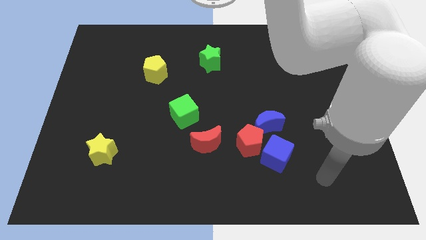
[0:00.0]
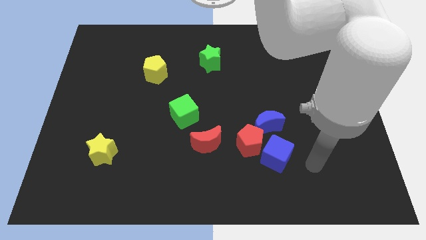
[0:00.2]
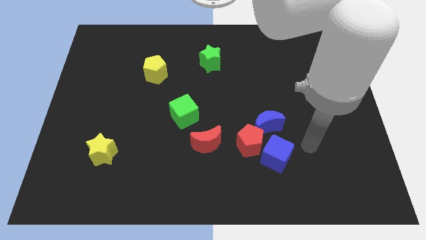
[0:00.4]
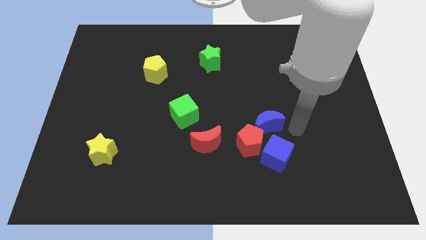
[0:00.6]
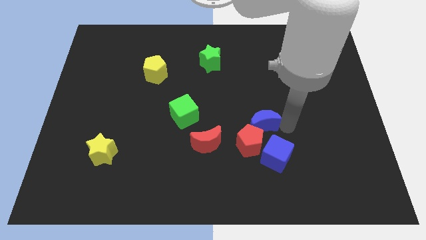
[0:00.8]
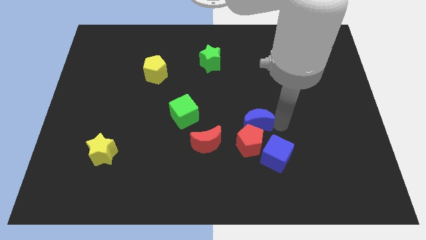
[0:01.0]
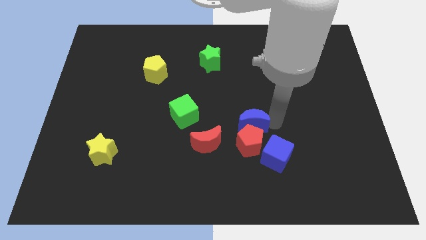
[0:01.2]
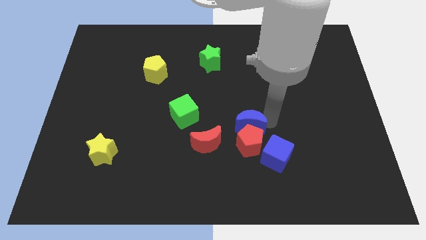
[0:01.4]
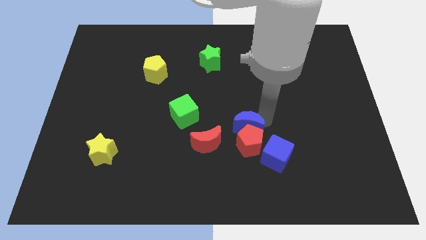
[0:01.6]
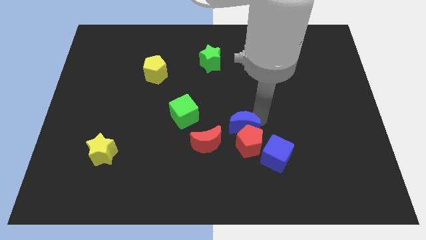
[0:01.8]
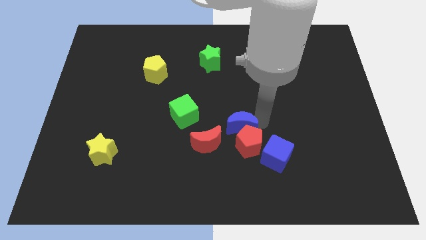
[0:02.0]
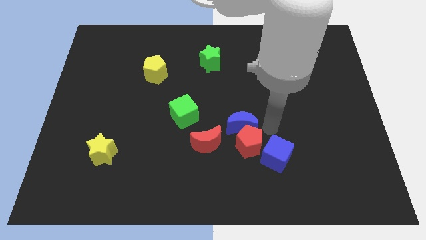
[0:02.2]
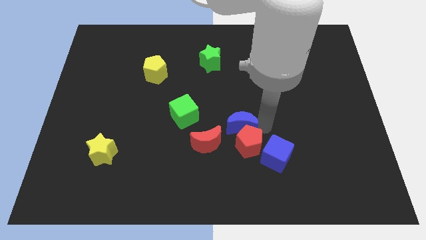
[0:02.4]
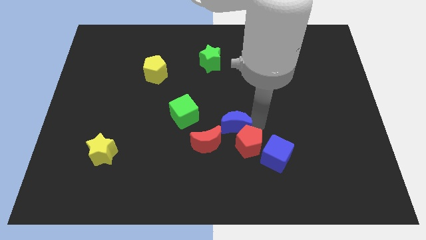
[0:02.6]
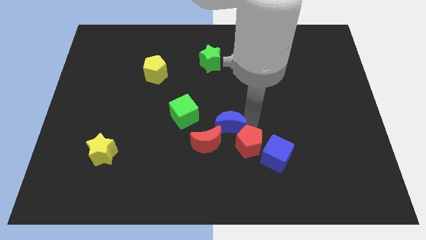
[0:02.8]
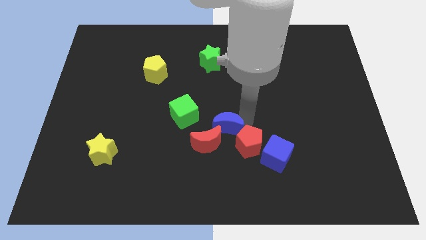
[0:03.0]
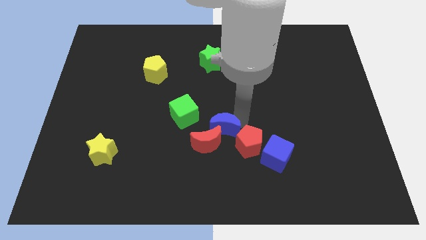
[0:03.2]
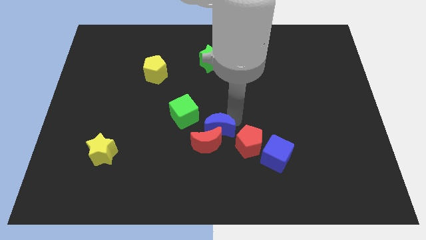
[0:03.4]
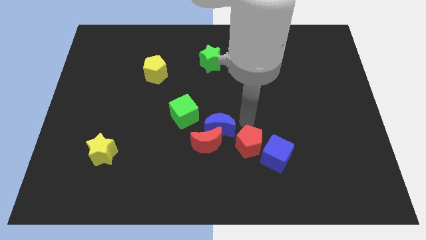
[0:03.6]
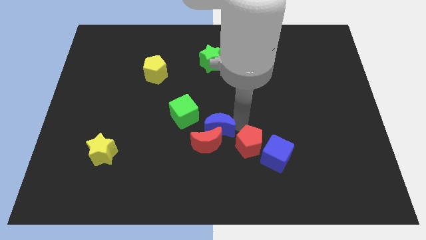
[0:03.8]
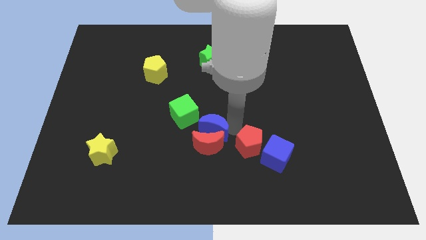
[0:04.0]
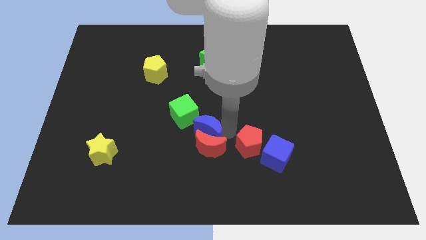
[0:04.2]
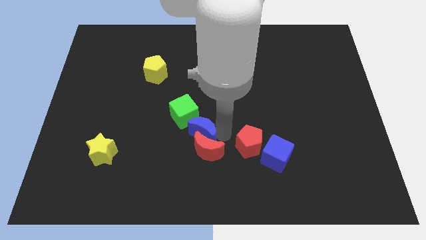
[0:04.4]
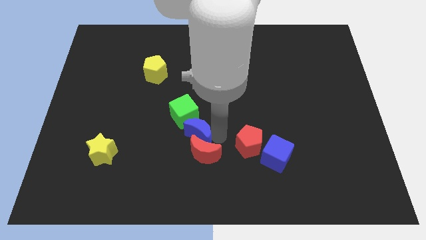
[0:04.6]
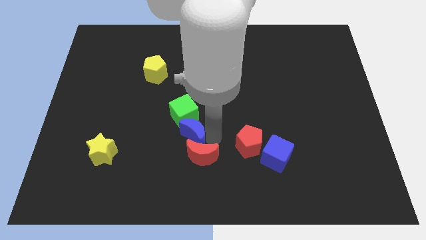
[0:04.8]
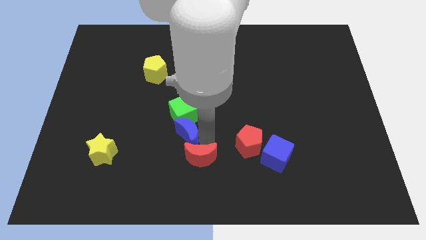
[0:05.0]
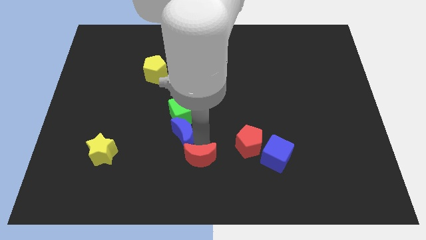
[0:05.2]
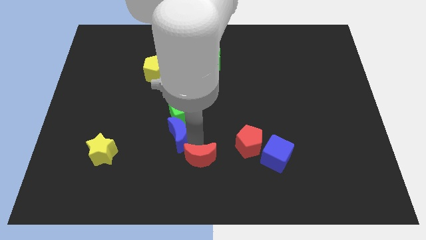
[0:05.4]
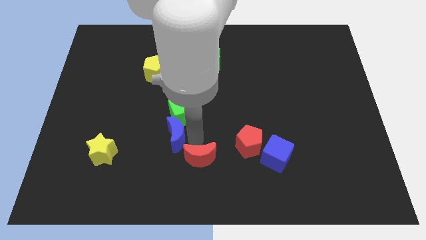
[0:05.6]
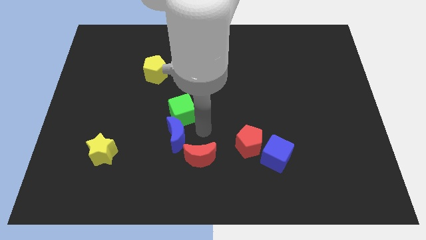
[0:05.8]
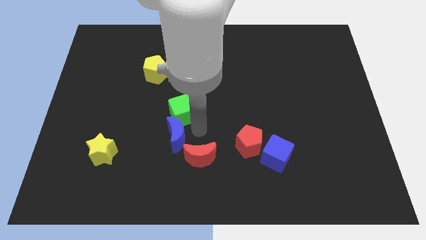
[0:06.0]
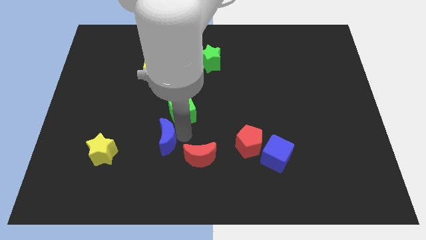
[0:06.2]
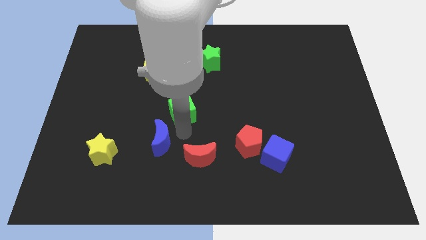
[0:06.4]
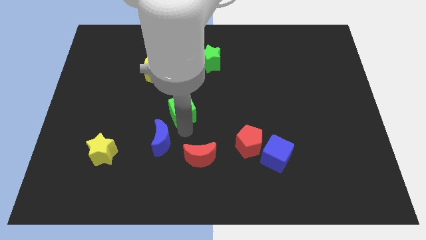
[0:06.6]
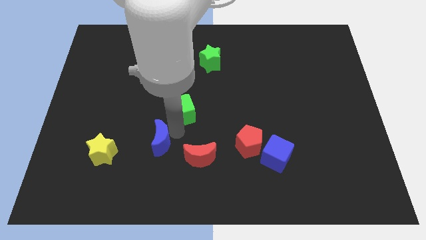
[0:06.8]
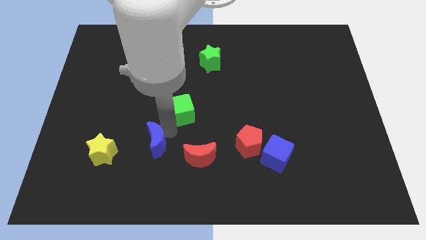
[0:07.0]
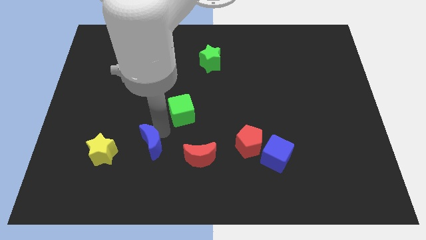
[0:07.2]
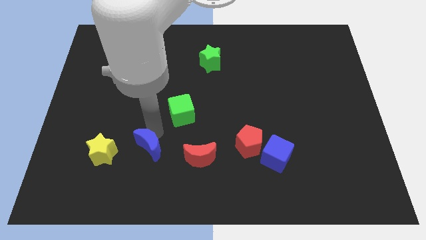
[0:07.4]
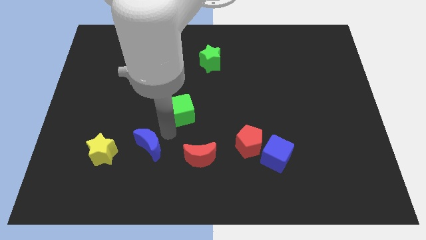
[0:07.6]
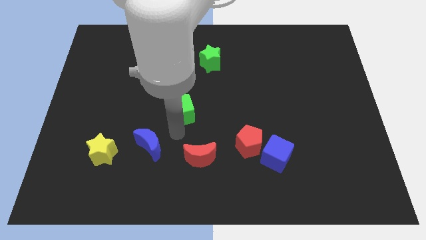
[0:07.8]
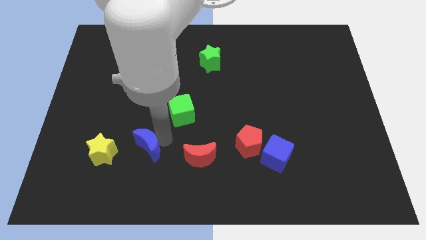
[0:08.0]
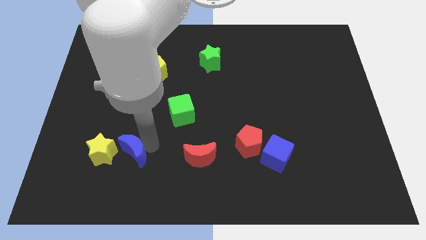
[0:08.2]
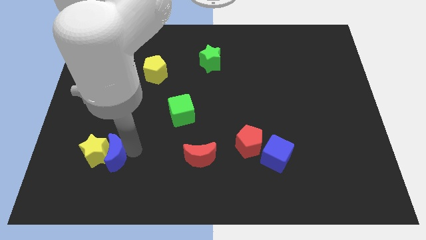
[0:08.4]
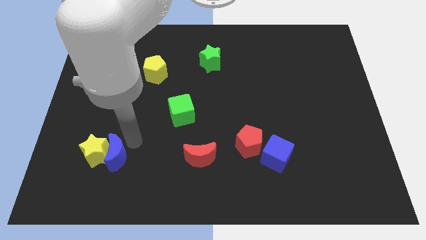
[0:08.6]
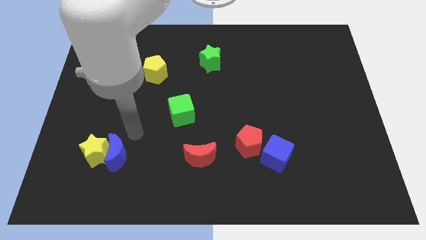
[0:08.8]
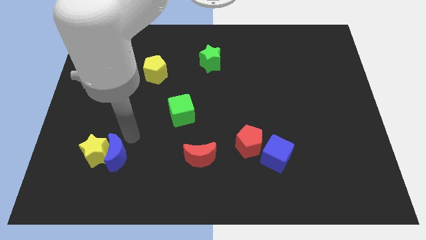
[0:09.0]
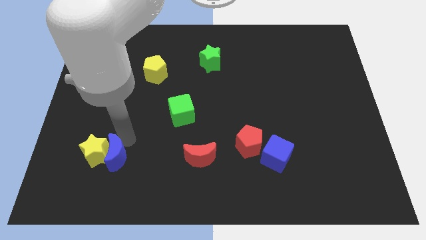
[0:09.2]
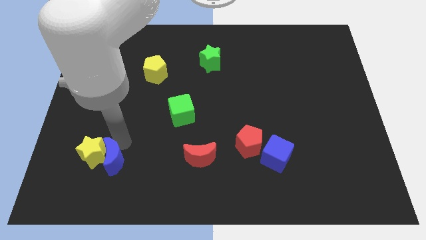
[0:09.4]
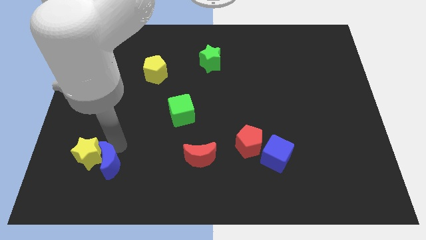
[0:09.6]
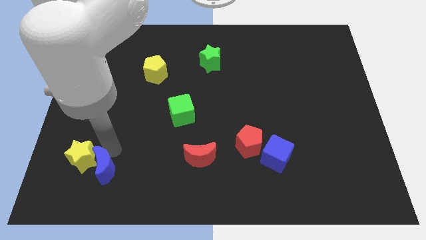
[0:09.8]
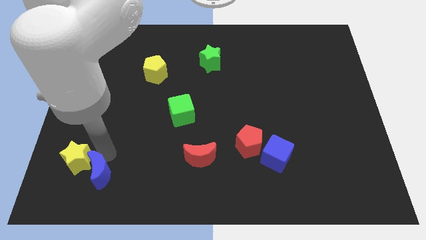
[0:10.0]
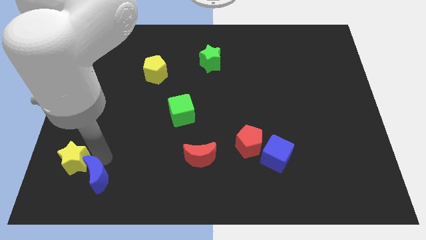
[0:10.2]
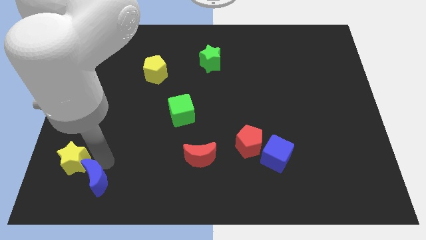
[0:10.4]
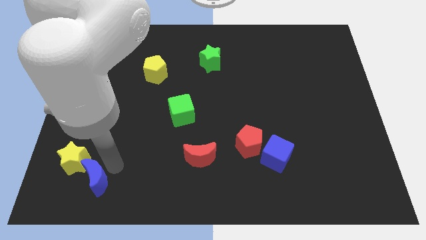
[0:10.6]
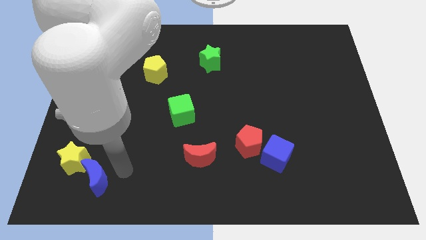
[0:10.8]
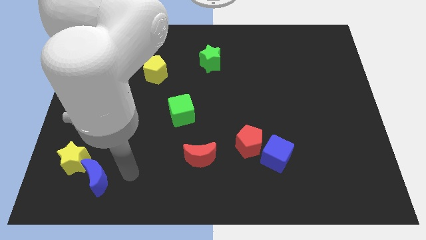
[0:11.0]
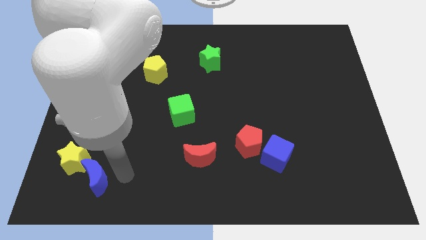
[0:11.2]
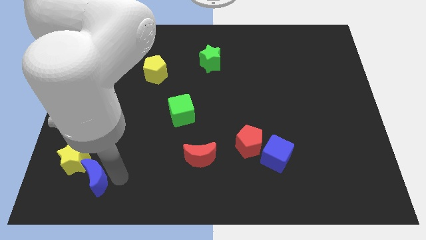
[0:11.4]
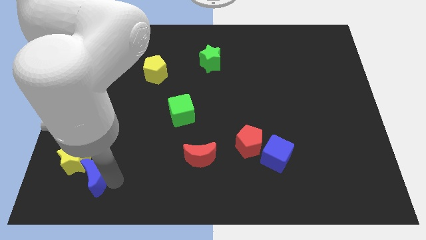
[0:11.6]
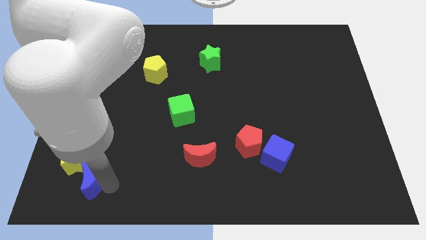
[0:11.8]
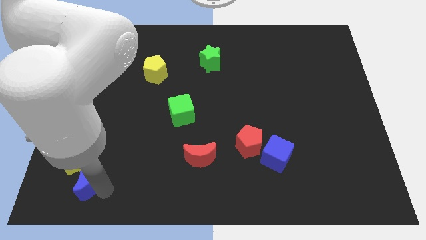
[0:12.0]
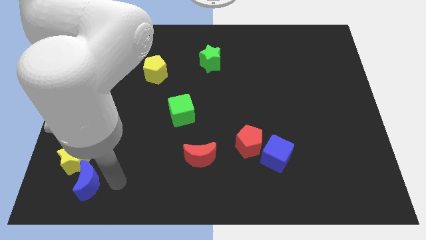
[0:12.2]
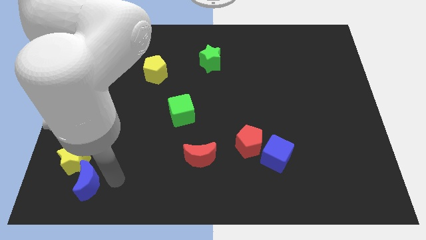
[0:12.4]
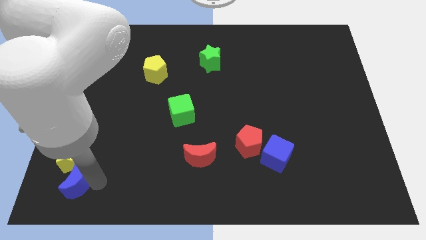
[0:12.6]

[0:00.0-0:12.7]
slide the blue moon to the bottom left
